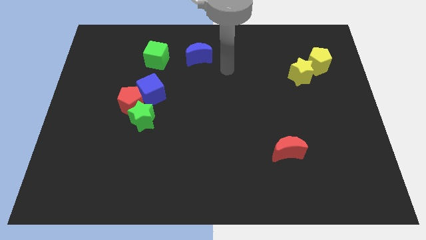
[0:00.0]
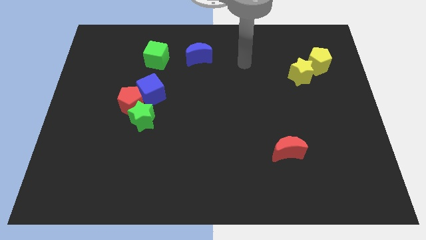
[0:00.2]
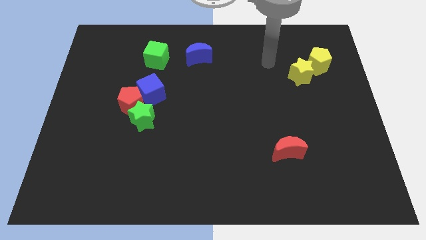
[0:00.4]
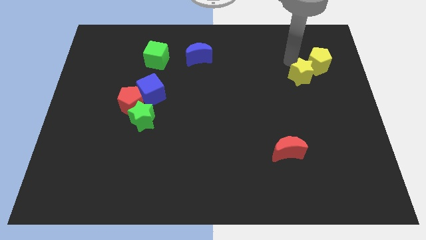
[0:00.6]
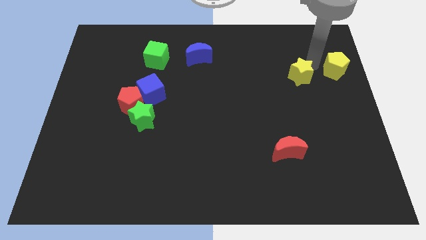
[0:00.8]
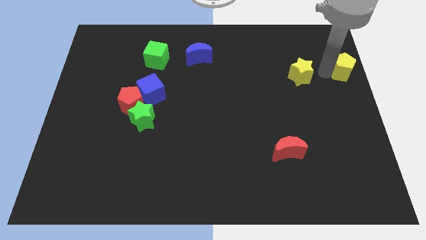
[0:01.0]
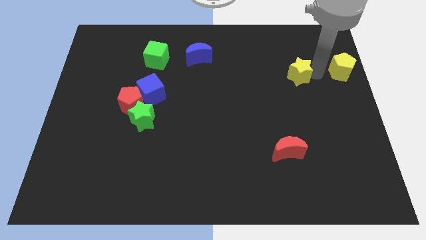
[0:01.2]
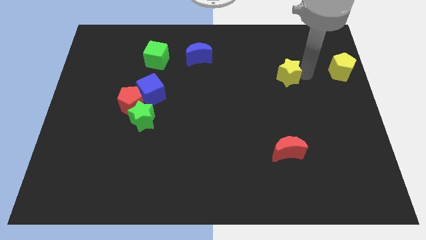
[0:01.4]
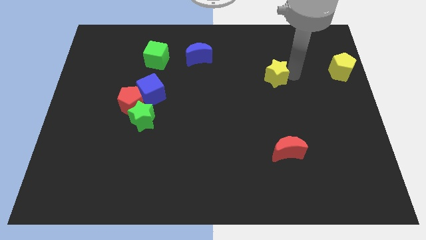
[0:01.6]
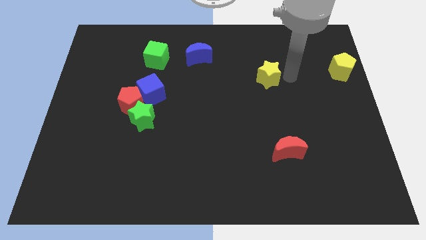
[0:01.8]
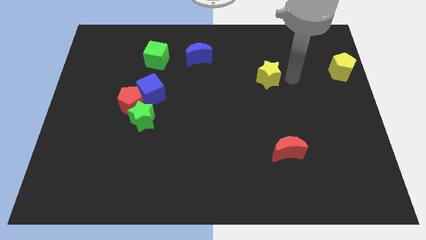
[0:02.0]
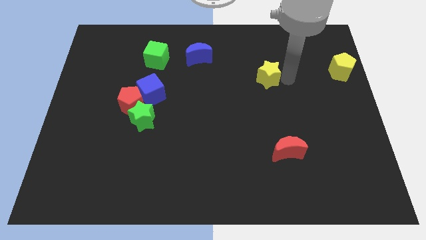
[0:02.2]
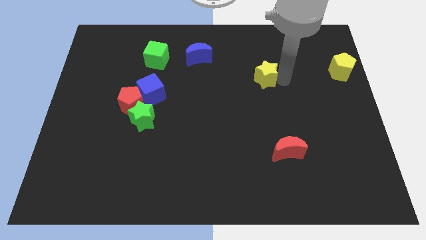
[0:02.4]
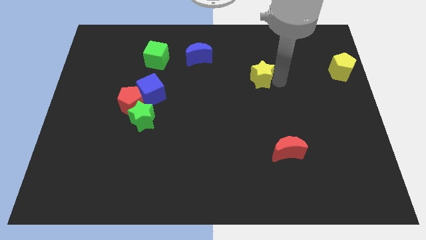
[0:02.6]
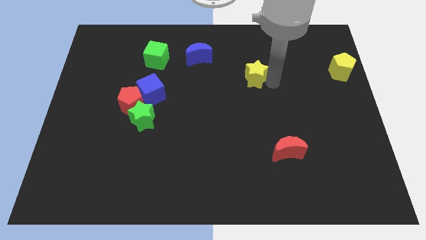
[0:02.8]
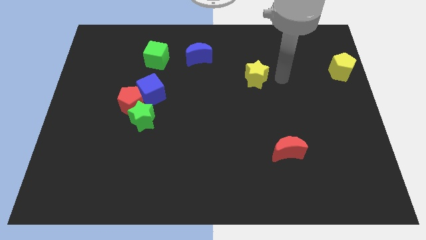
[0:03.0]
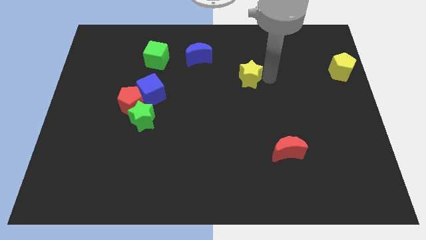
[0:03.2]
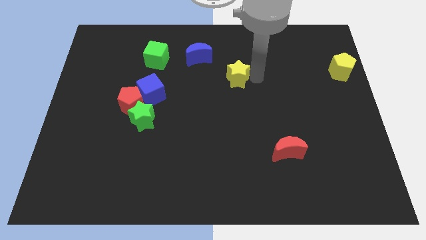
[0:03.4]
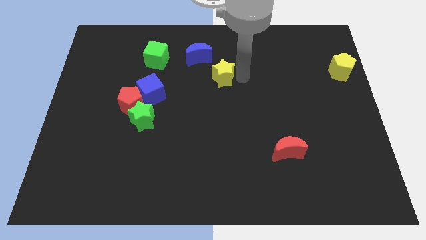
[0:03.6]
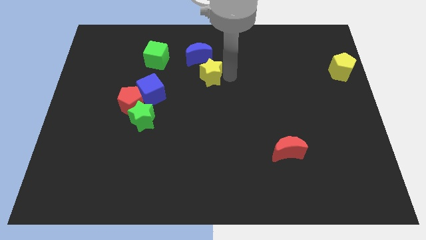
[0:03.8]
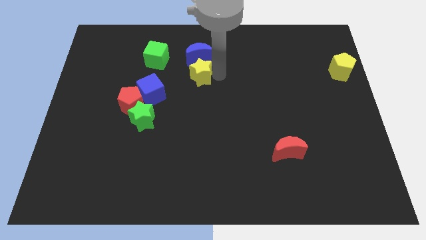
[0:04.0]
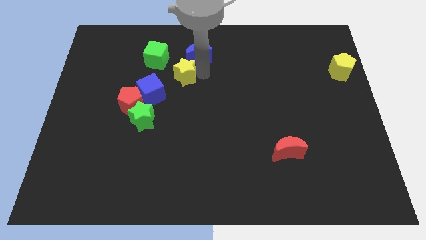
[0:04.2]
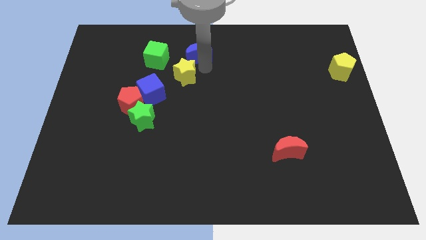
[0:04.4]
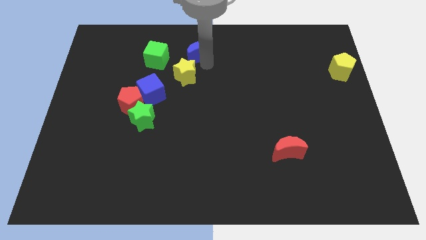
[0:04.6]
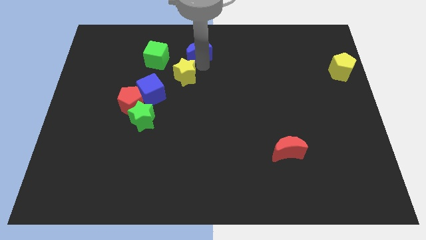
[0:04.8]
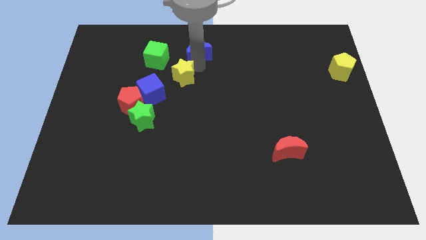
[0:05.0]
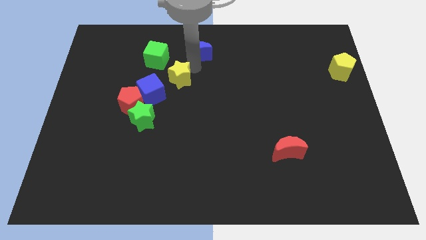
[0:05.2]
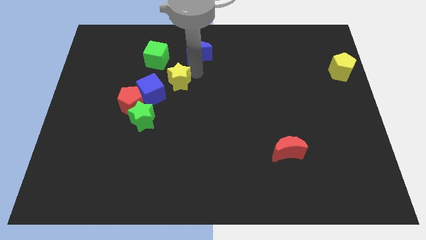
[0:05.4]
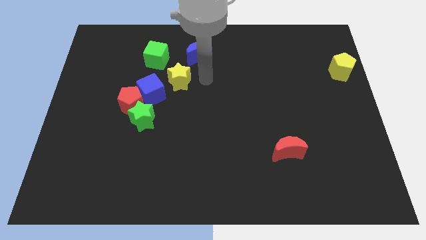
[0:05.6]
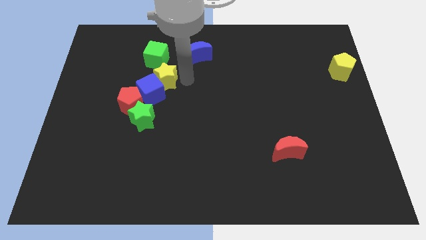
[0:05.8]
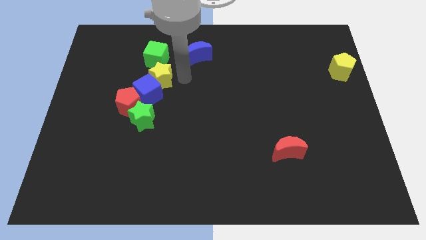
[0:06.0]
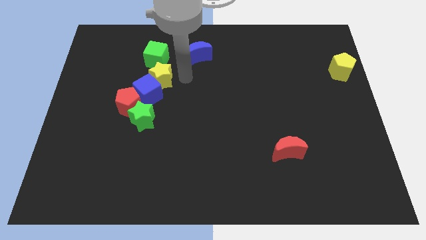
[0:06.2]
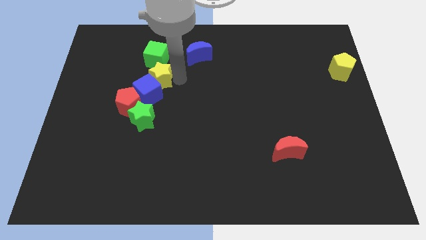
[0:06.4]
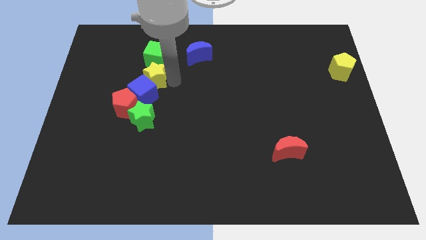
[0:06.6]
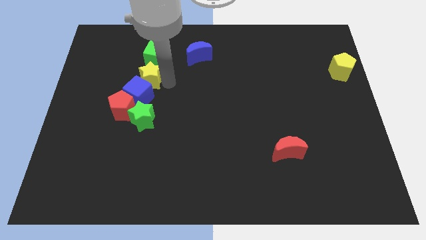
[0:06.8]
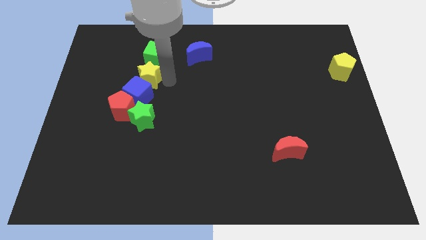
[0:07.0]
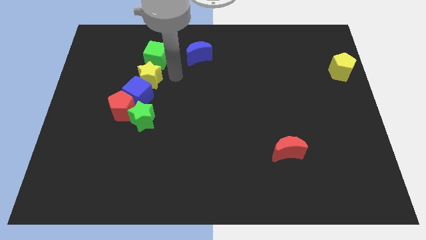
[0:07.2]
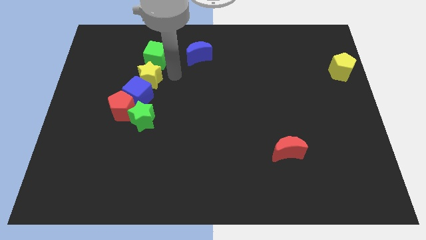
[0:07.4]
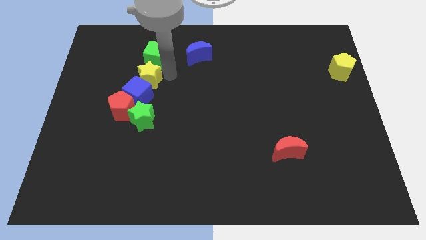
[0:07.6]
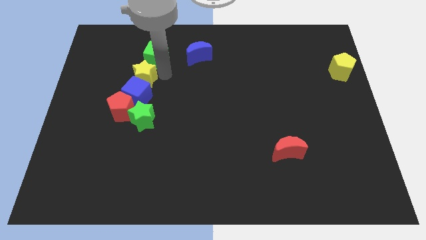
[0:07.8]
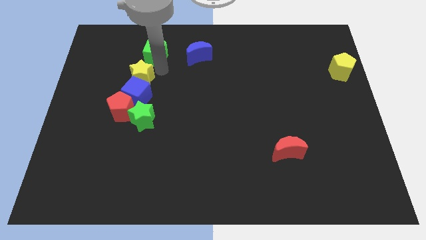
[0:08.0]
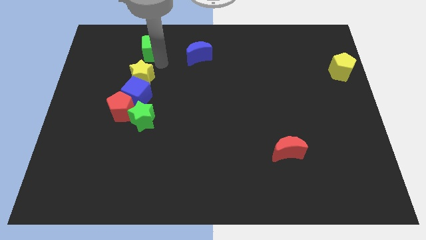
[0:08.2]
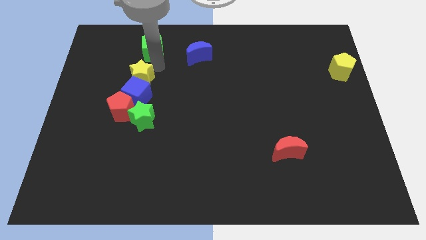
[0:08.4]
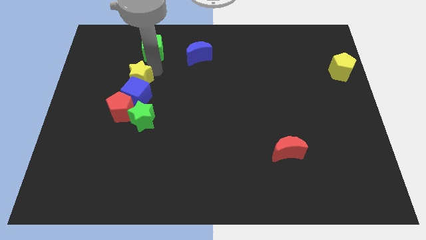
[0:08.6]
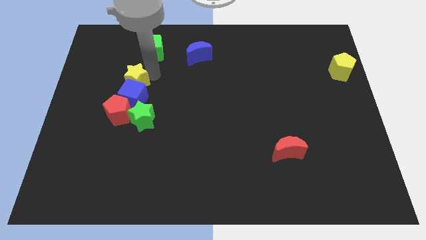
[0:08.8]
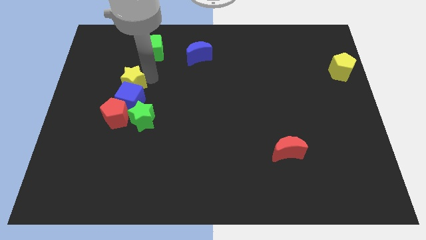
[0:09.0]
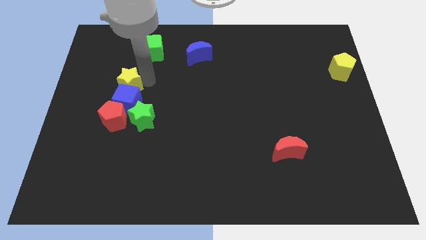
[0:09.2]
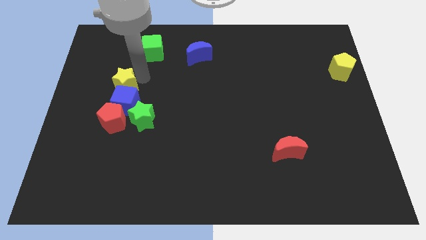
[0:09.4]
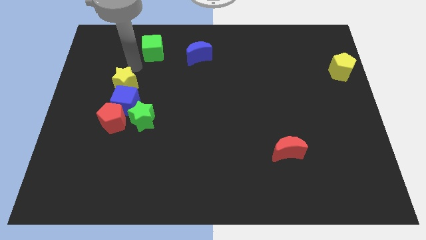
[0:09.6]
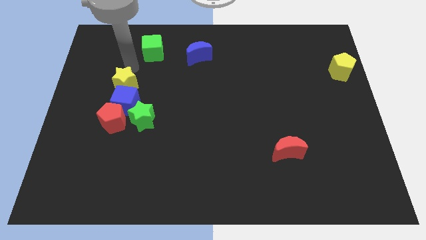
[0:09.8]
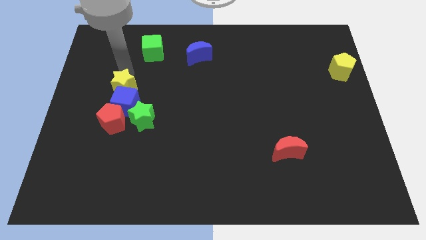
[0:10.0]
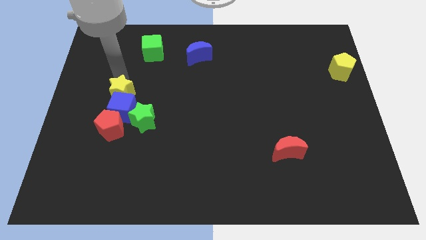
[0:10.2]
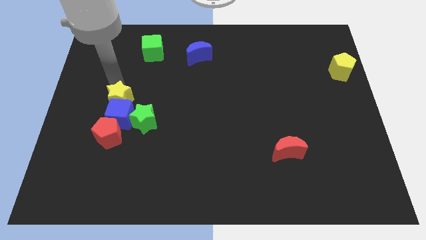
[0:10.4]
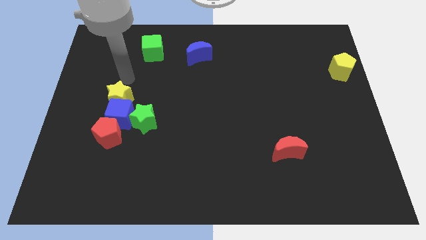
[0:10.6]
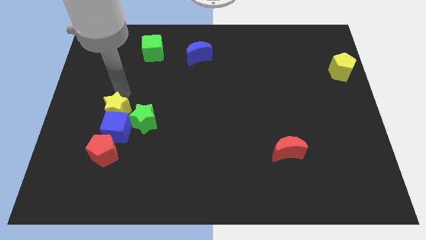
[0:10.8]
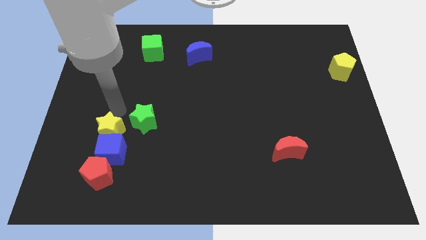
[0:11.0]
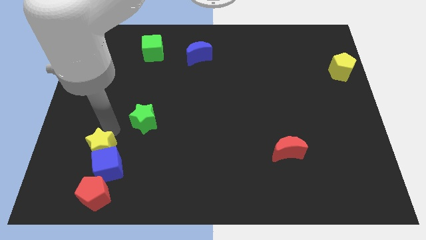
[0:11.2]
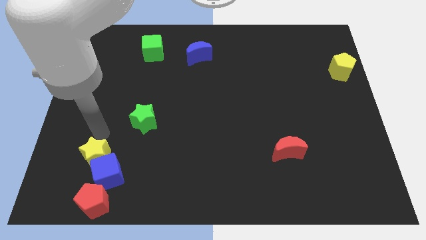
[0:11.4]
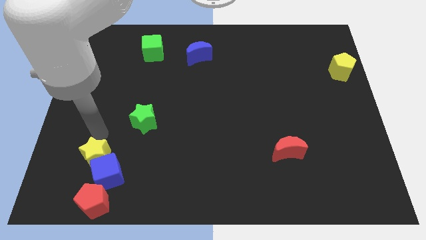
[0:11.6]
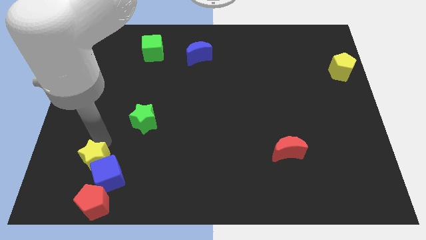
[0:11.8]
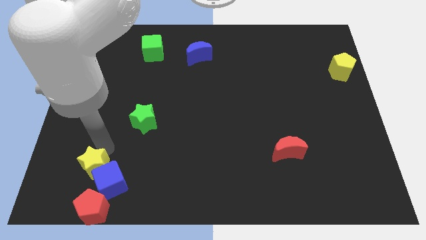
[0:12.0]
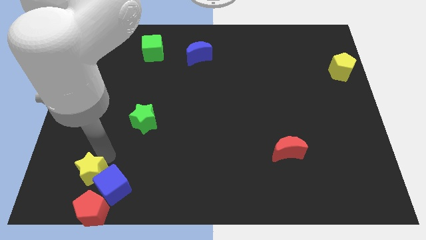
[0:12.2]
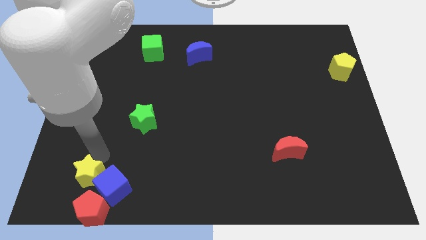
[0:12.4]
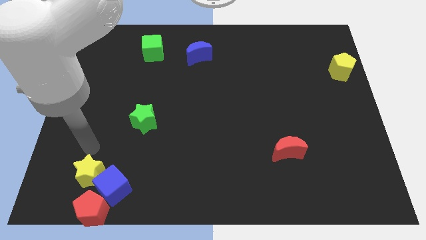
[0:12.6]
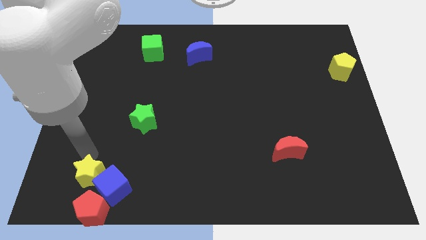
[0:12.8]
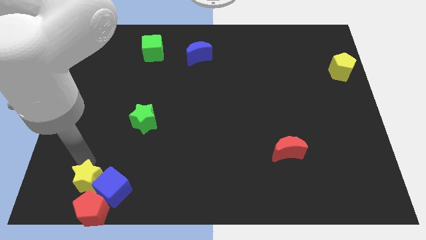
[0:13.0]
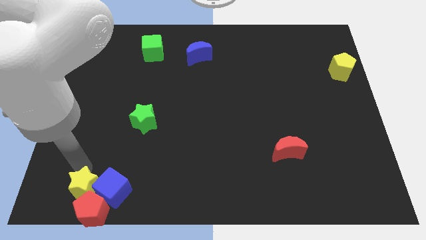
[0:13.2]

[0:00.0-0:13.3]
move the yellow star towards the red pentagon
